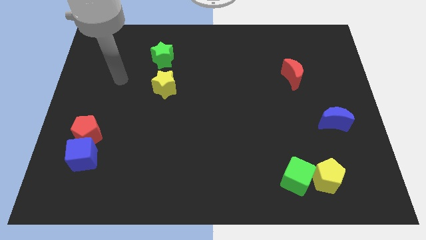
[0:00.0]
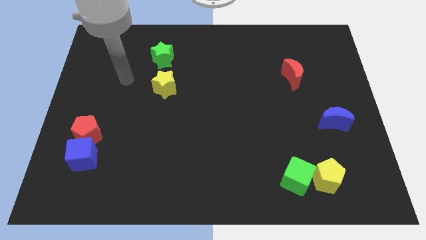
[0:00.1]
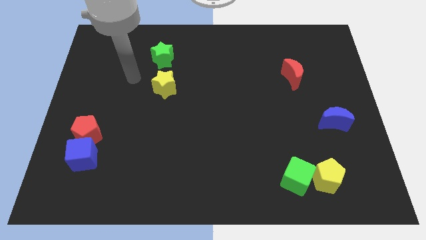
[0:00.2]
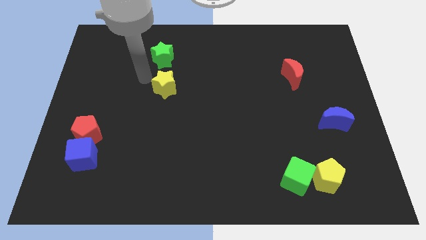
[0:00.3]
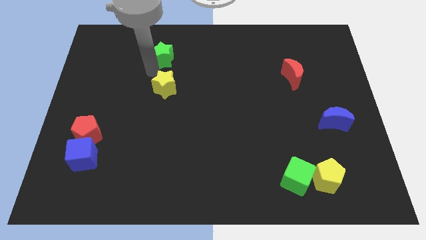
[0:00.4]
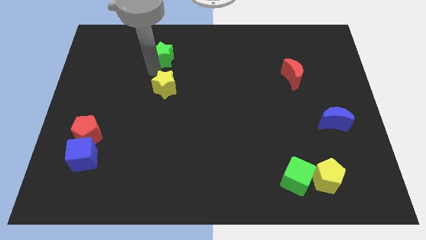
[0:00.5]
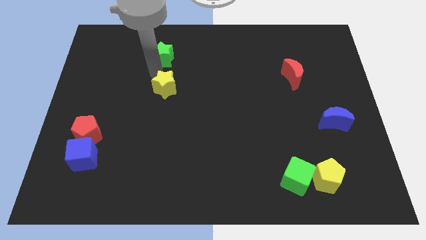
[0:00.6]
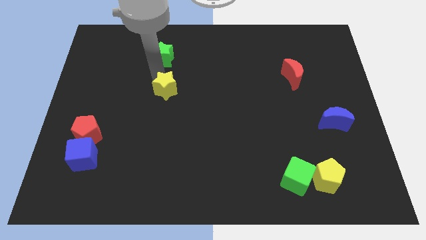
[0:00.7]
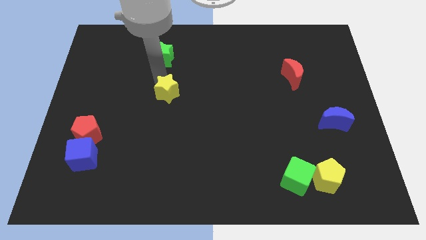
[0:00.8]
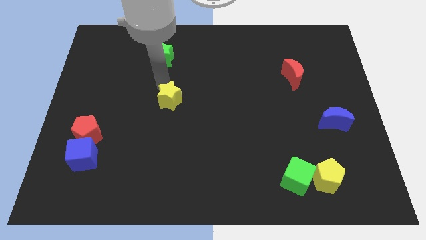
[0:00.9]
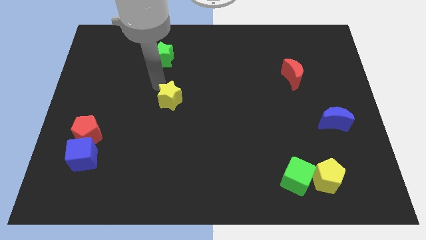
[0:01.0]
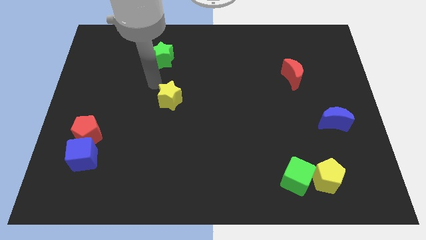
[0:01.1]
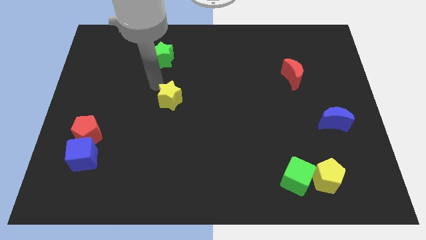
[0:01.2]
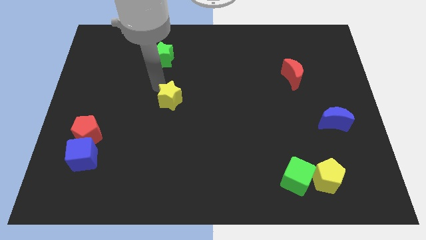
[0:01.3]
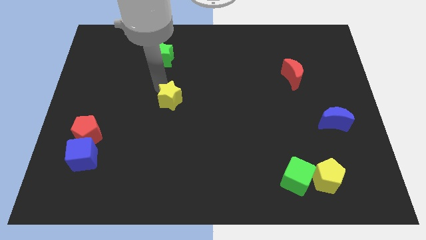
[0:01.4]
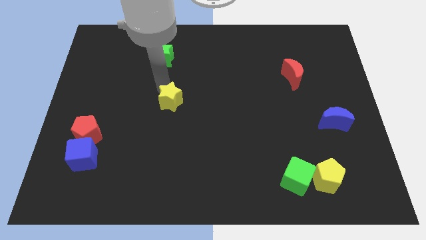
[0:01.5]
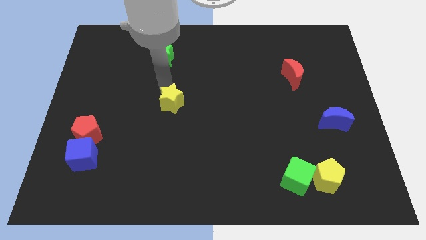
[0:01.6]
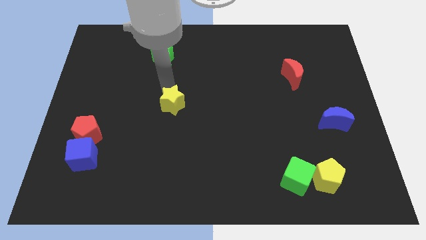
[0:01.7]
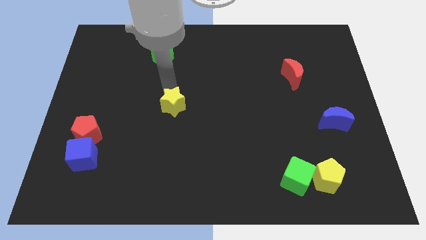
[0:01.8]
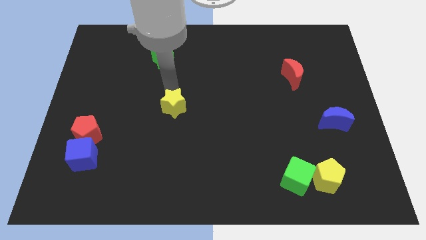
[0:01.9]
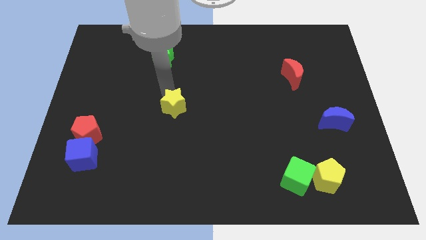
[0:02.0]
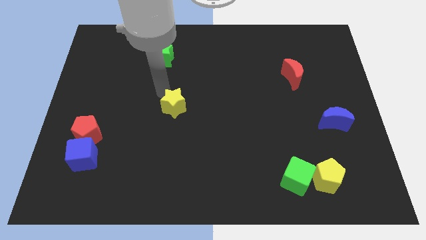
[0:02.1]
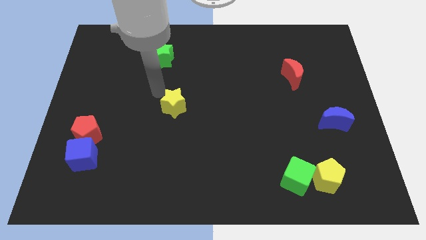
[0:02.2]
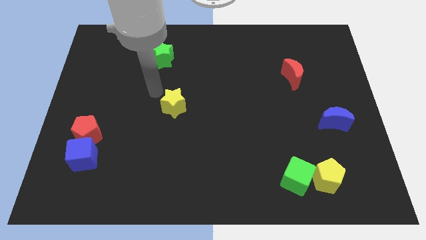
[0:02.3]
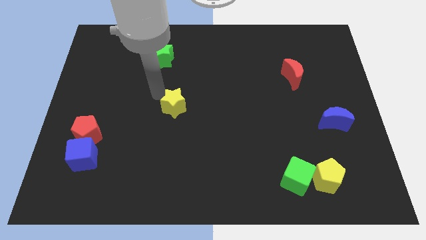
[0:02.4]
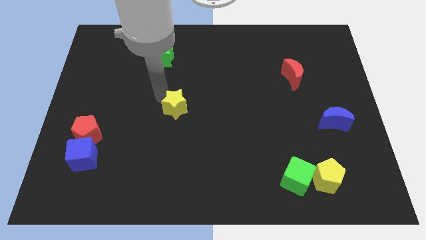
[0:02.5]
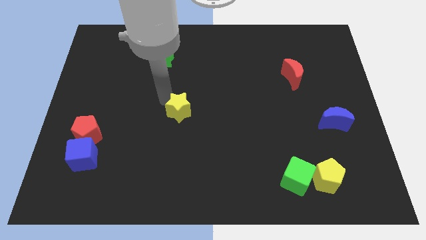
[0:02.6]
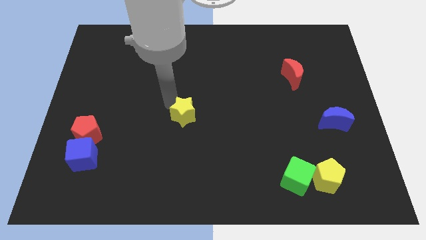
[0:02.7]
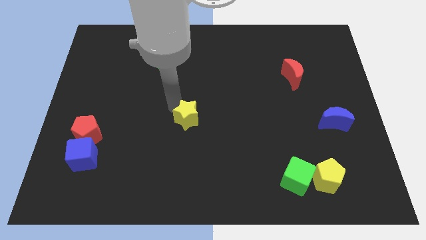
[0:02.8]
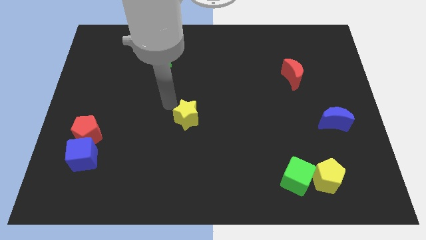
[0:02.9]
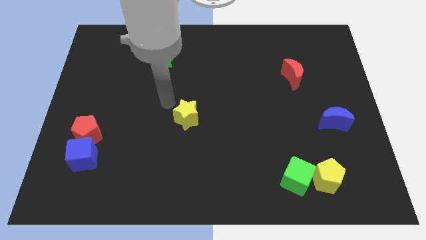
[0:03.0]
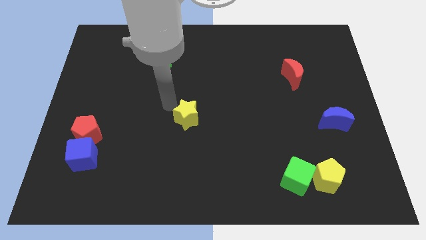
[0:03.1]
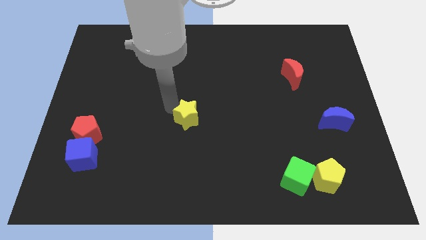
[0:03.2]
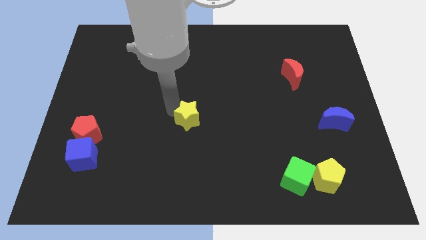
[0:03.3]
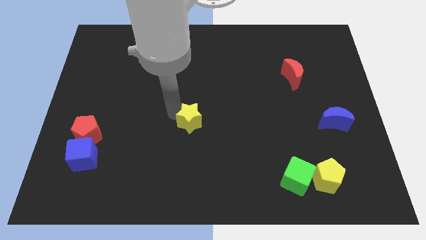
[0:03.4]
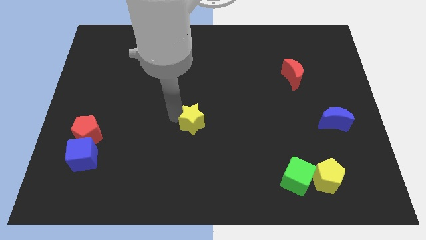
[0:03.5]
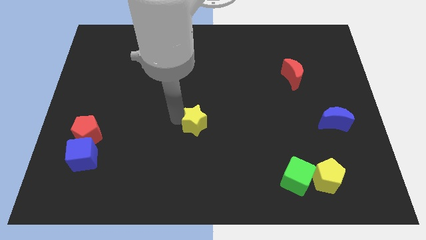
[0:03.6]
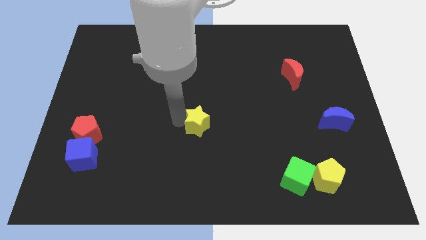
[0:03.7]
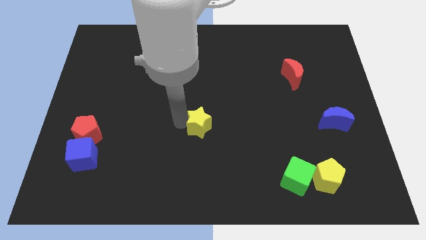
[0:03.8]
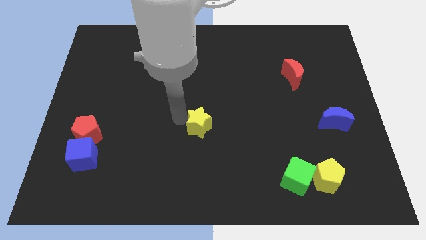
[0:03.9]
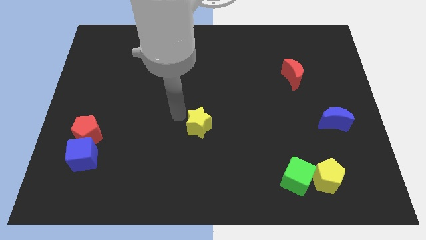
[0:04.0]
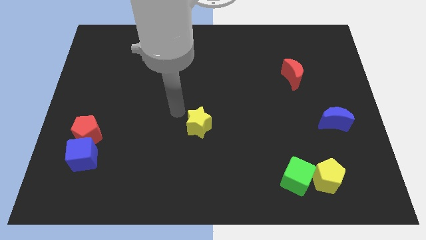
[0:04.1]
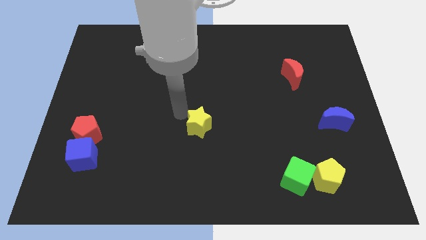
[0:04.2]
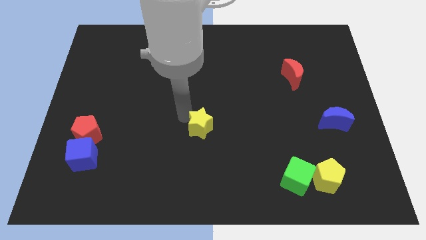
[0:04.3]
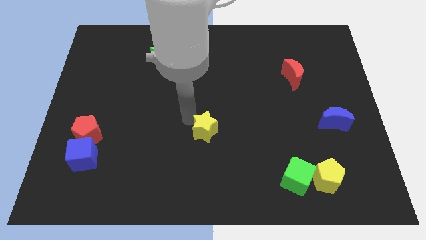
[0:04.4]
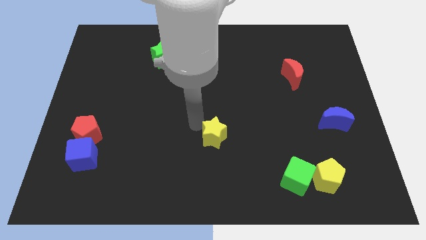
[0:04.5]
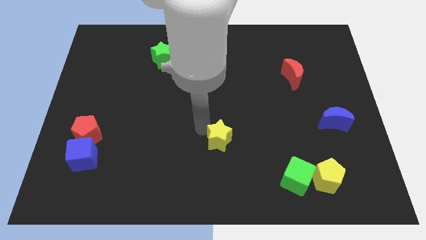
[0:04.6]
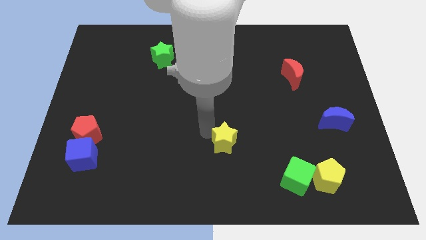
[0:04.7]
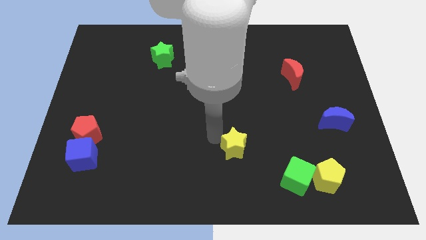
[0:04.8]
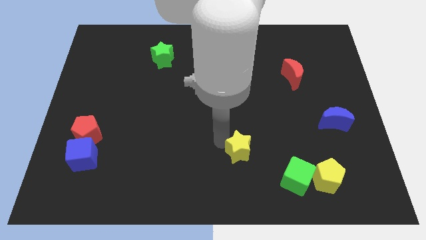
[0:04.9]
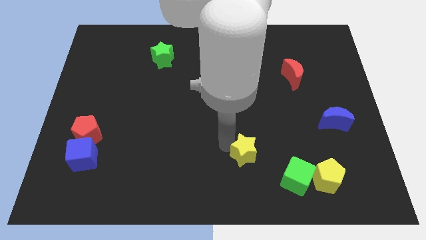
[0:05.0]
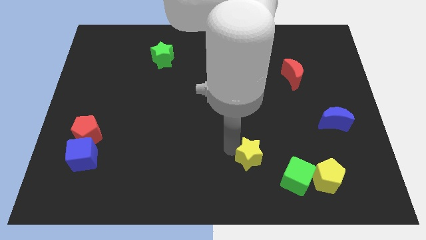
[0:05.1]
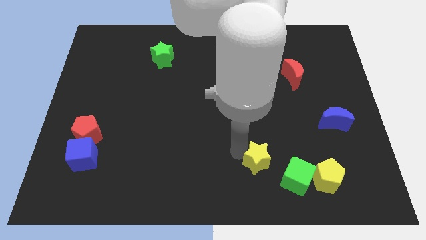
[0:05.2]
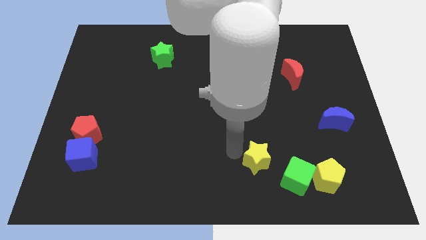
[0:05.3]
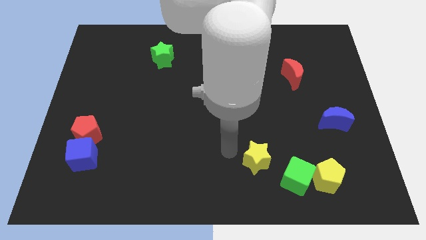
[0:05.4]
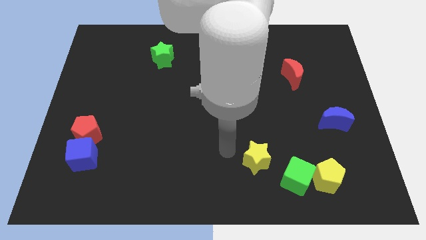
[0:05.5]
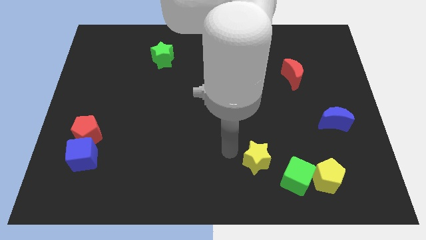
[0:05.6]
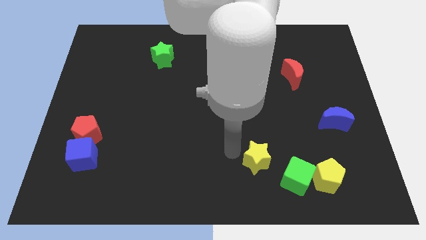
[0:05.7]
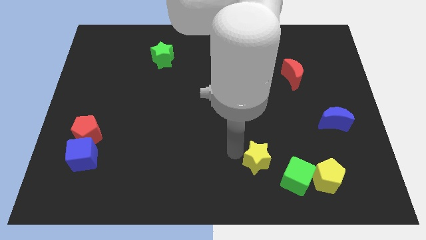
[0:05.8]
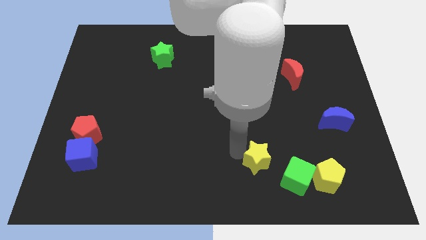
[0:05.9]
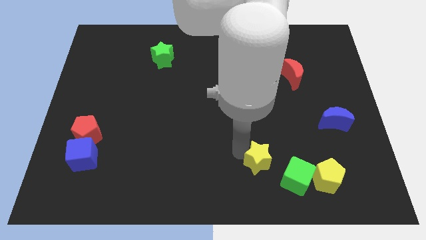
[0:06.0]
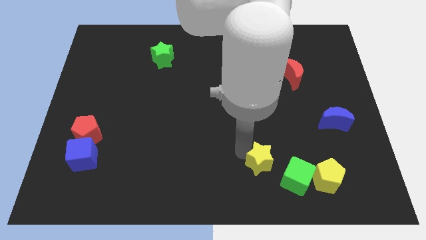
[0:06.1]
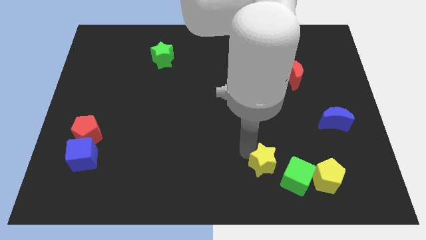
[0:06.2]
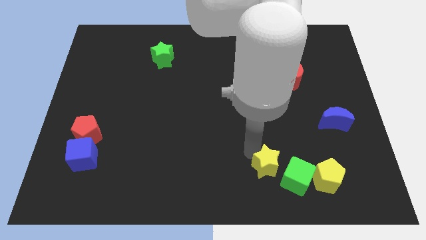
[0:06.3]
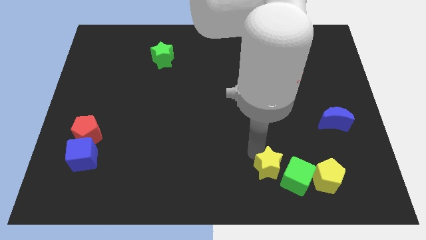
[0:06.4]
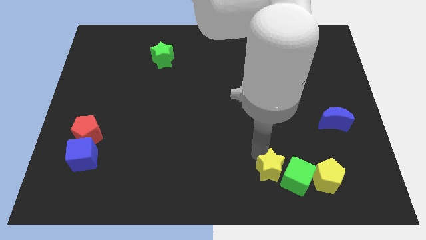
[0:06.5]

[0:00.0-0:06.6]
slide the yellow star close to the green cube
